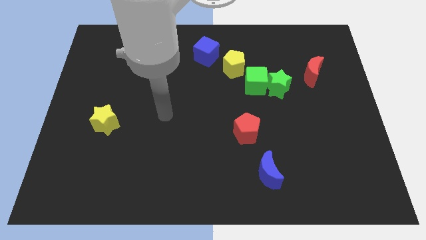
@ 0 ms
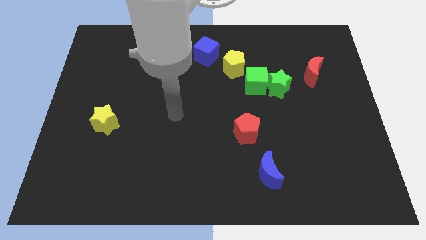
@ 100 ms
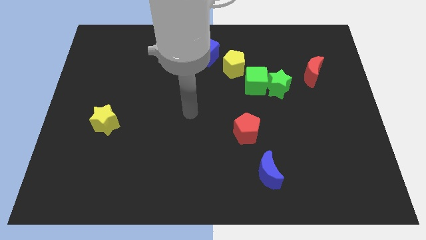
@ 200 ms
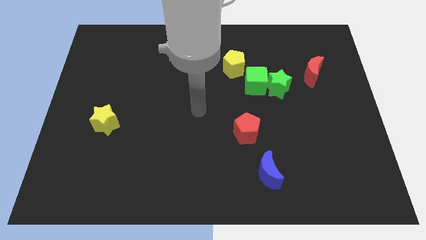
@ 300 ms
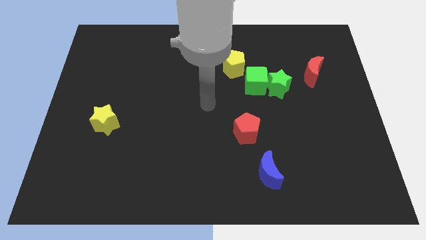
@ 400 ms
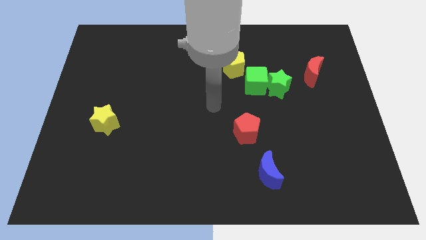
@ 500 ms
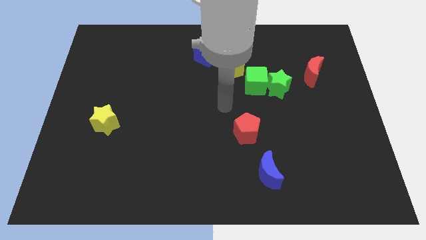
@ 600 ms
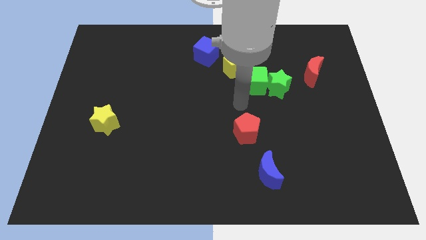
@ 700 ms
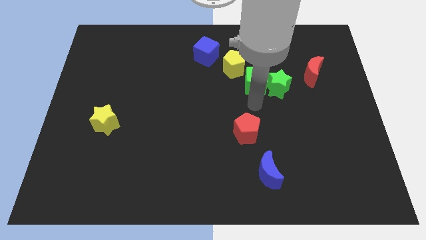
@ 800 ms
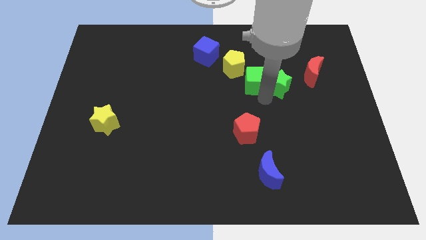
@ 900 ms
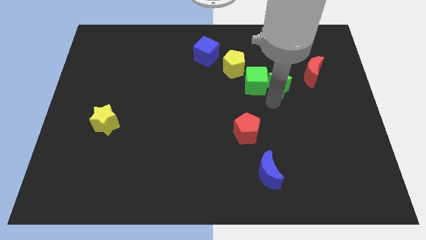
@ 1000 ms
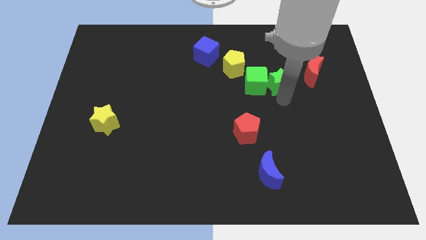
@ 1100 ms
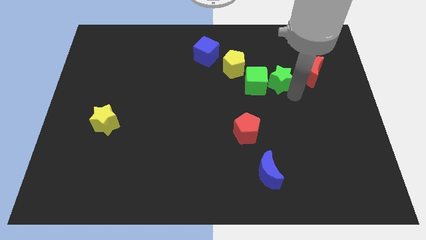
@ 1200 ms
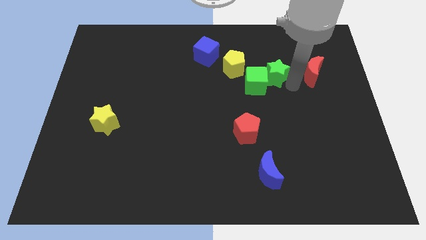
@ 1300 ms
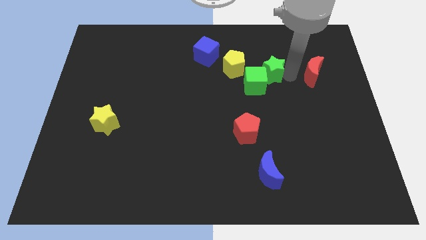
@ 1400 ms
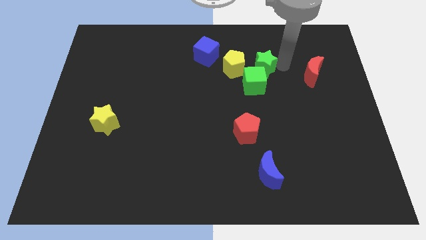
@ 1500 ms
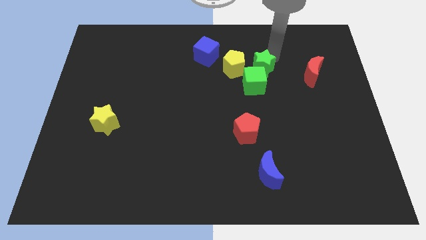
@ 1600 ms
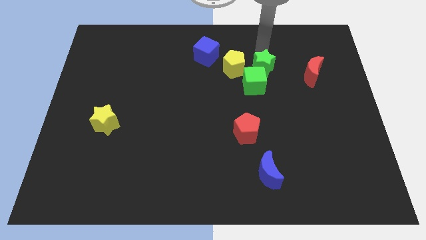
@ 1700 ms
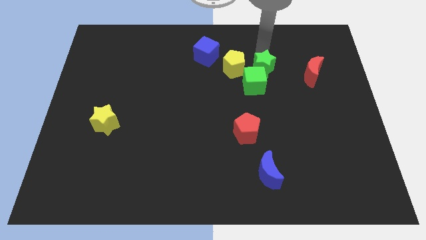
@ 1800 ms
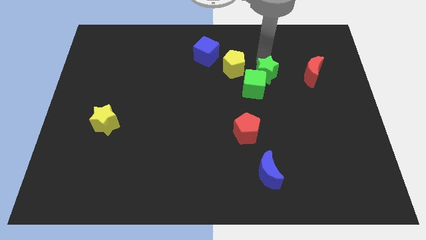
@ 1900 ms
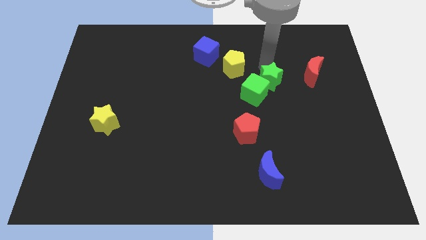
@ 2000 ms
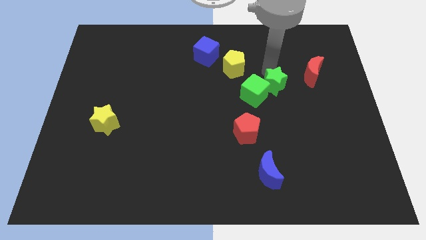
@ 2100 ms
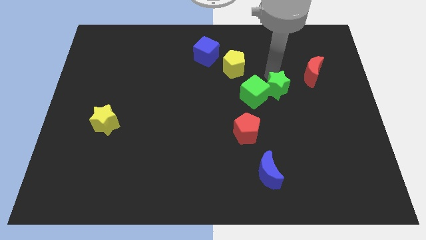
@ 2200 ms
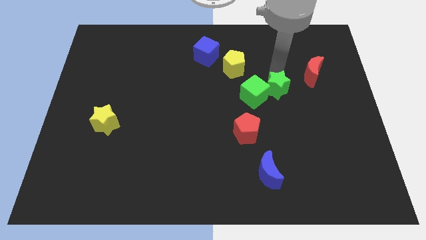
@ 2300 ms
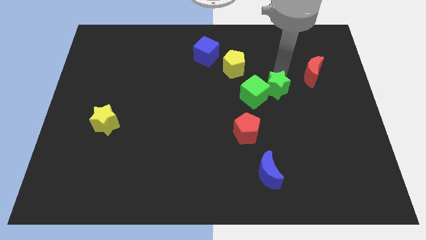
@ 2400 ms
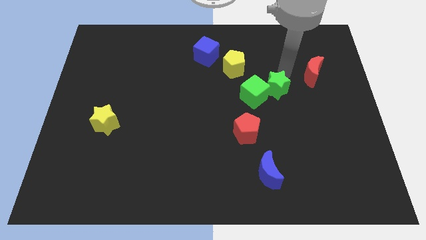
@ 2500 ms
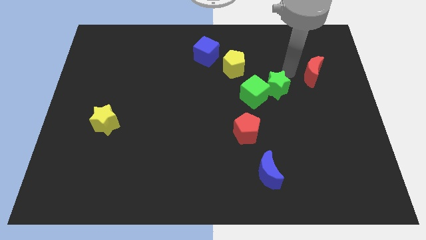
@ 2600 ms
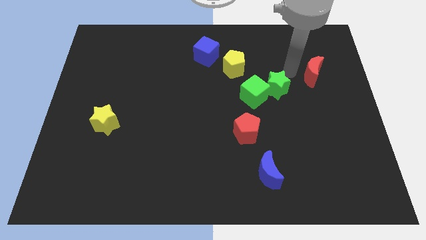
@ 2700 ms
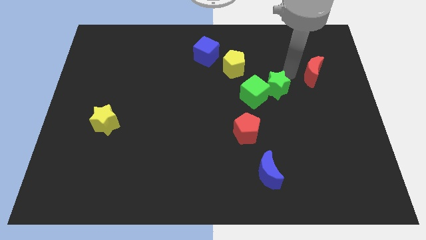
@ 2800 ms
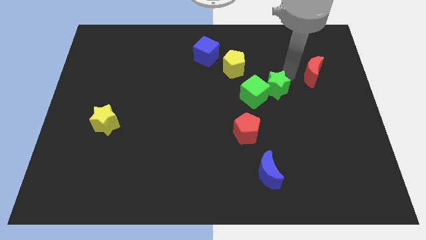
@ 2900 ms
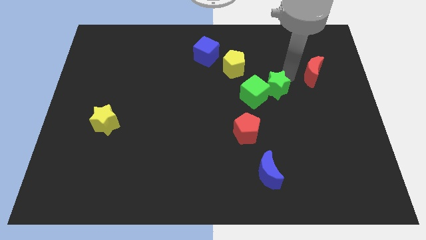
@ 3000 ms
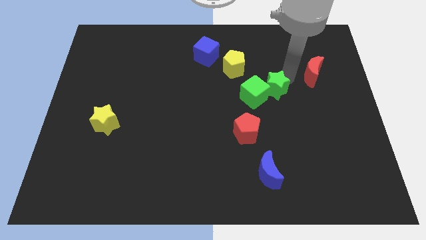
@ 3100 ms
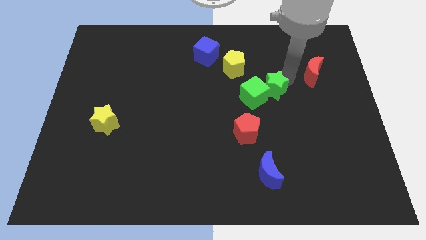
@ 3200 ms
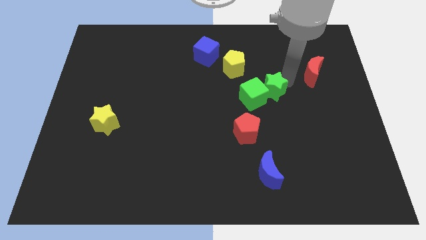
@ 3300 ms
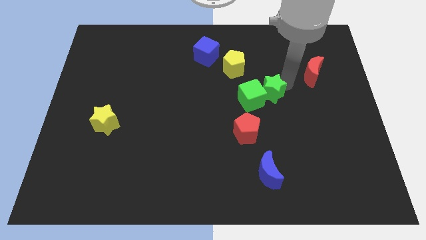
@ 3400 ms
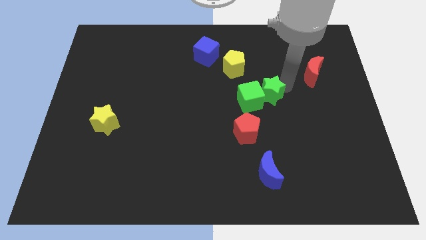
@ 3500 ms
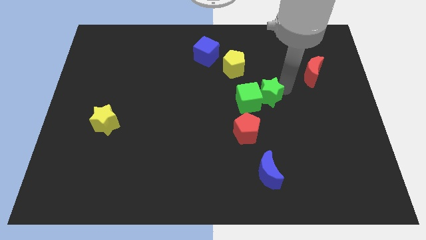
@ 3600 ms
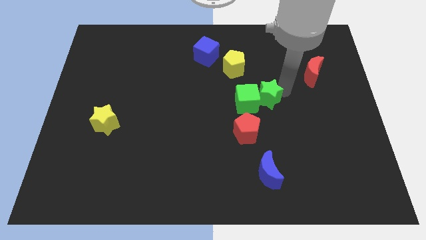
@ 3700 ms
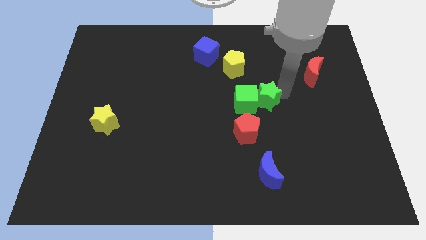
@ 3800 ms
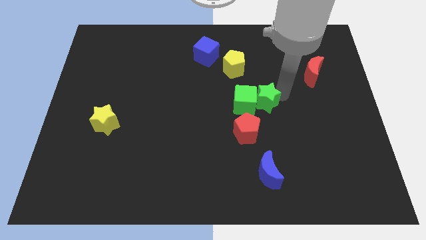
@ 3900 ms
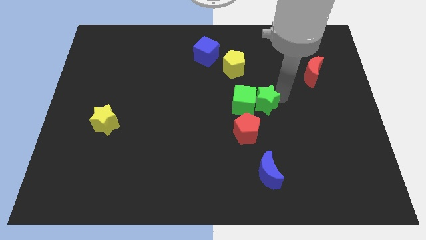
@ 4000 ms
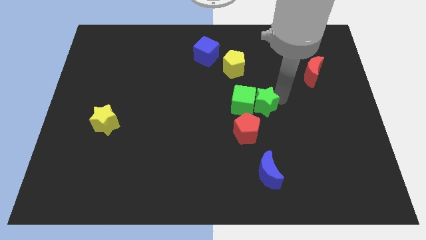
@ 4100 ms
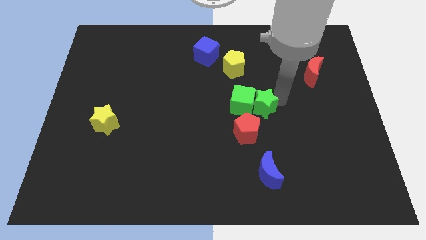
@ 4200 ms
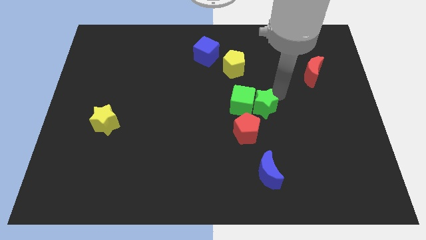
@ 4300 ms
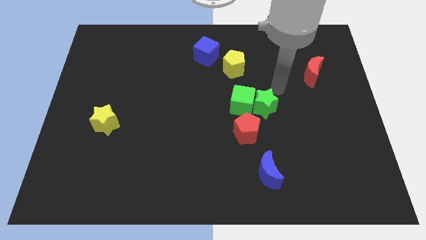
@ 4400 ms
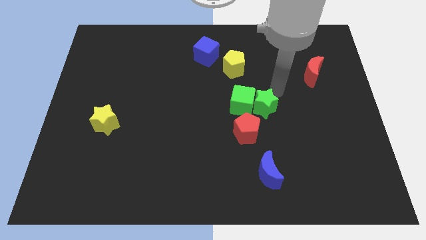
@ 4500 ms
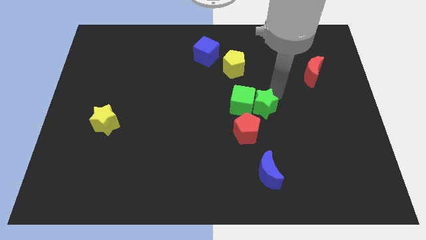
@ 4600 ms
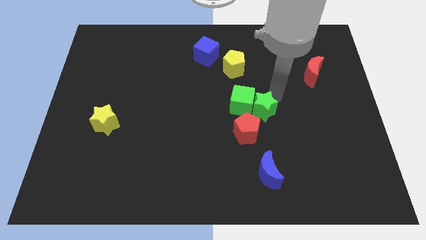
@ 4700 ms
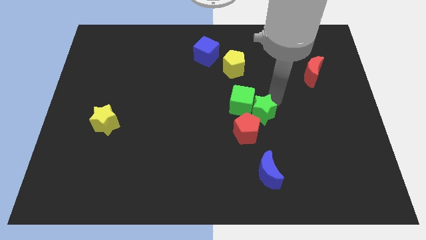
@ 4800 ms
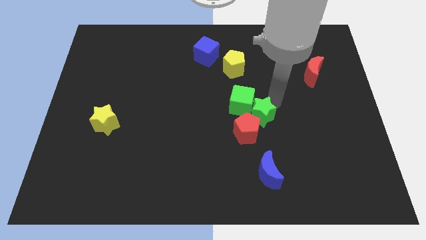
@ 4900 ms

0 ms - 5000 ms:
slide the green star towards the red pentagon

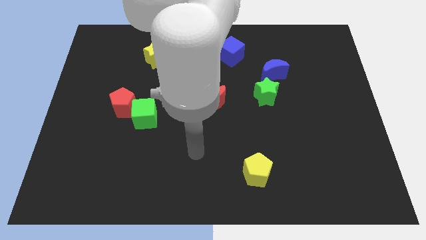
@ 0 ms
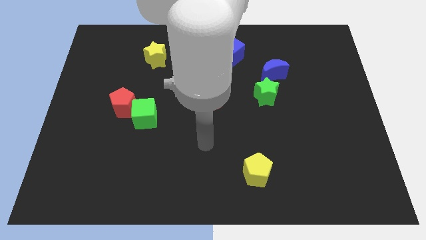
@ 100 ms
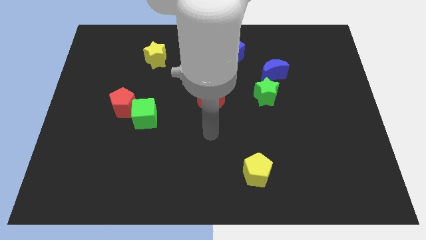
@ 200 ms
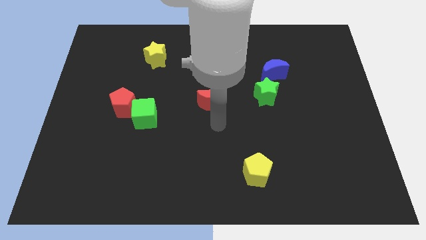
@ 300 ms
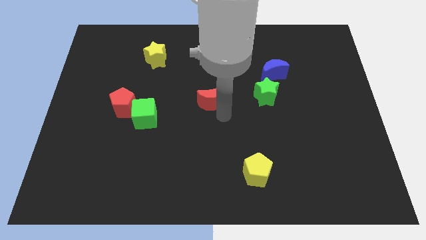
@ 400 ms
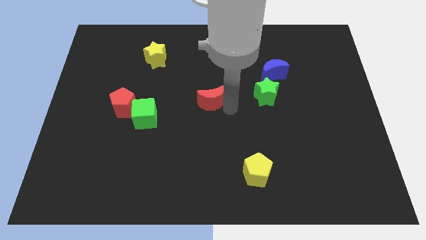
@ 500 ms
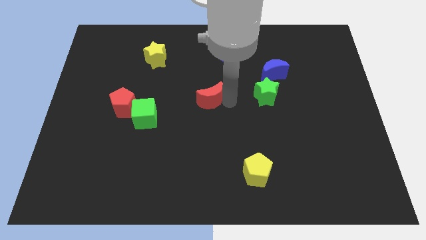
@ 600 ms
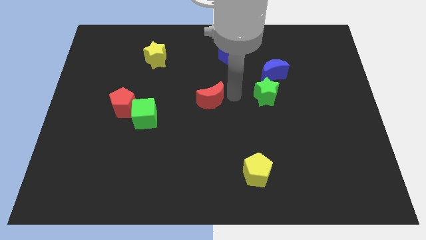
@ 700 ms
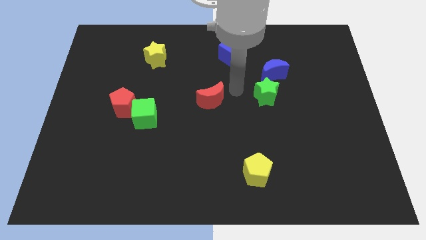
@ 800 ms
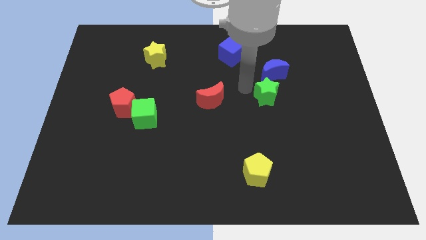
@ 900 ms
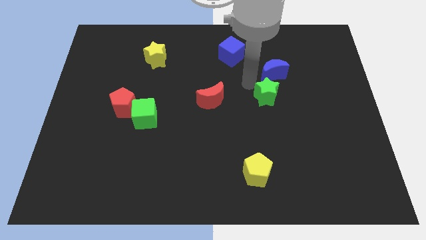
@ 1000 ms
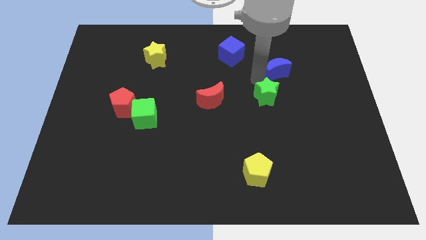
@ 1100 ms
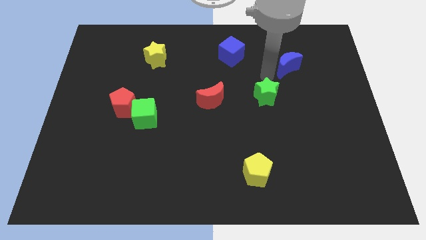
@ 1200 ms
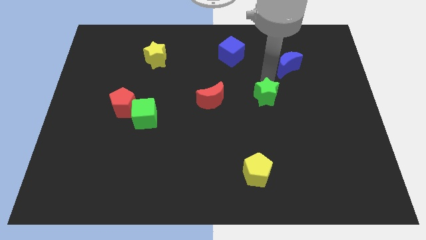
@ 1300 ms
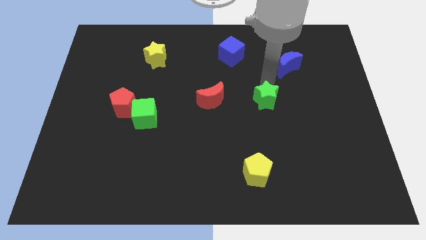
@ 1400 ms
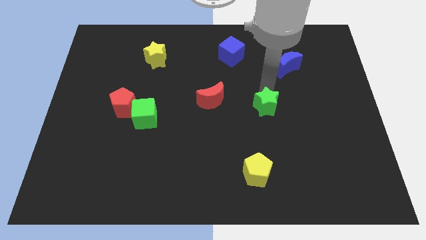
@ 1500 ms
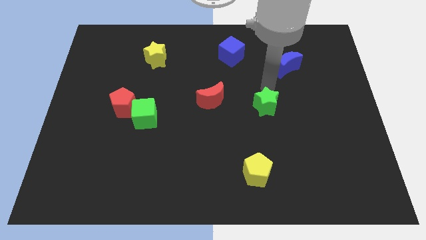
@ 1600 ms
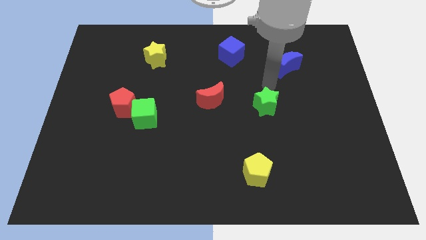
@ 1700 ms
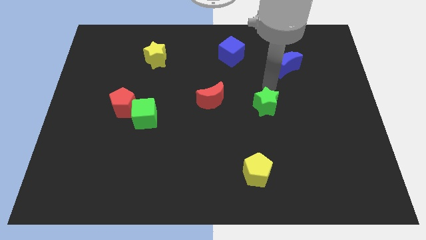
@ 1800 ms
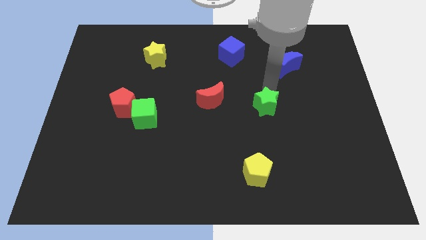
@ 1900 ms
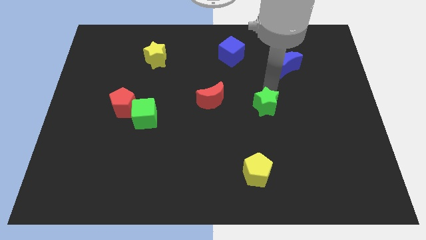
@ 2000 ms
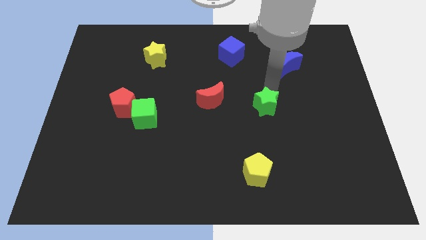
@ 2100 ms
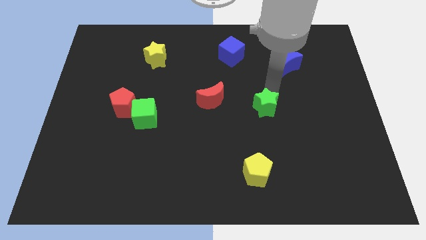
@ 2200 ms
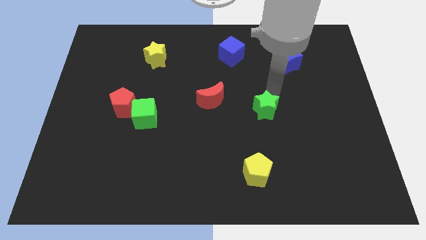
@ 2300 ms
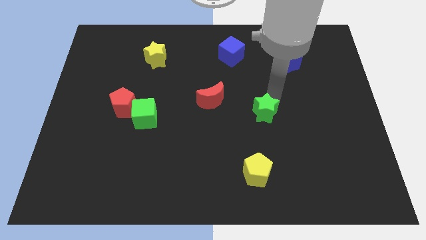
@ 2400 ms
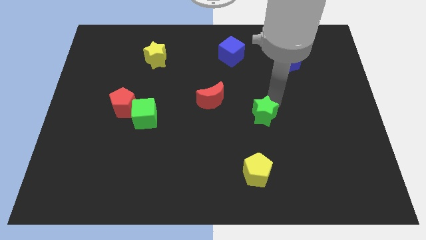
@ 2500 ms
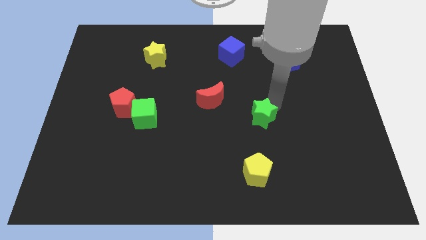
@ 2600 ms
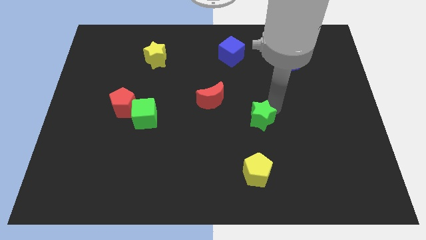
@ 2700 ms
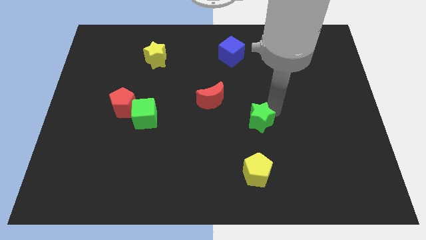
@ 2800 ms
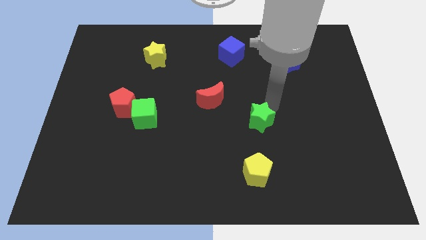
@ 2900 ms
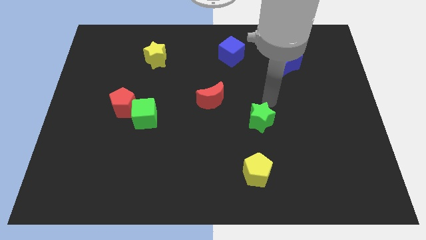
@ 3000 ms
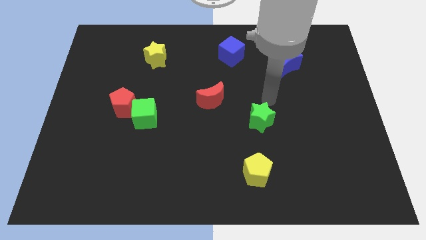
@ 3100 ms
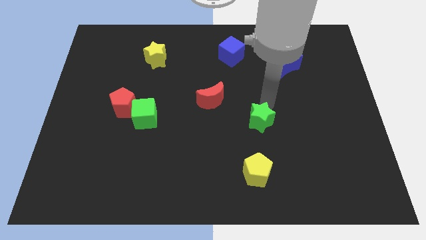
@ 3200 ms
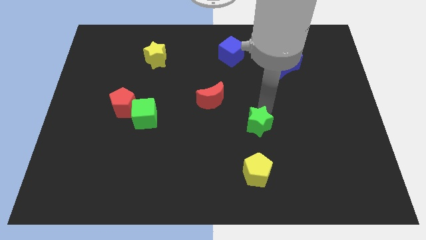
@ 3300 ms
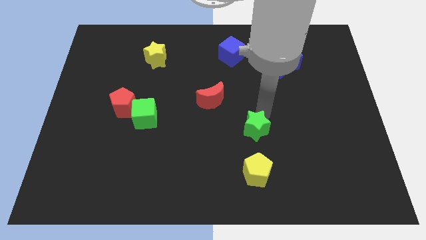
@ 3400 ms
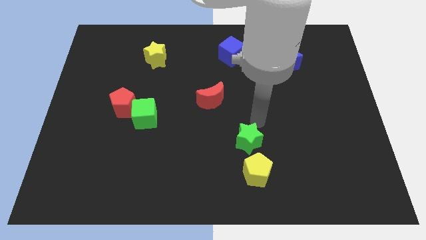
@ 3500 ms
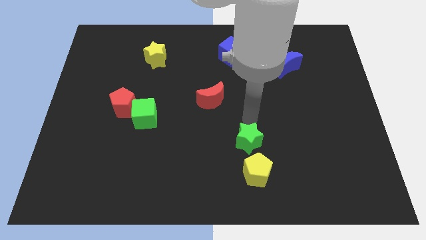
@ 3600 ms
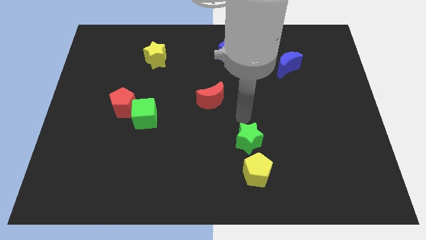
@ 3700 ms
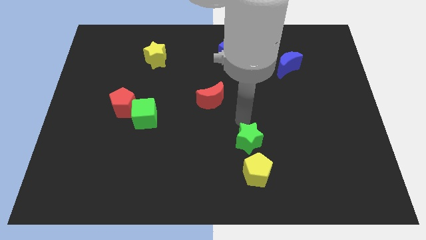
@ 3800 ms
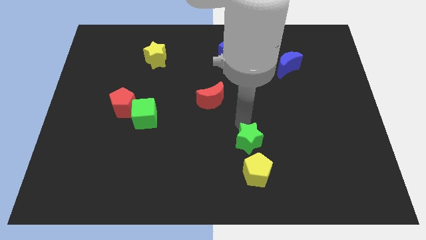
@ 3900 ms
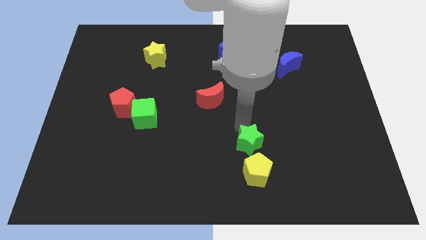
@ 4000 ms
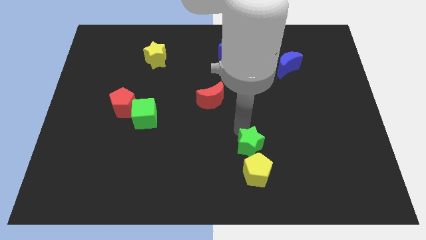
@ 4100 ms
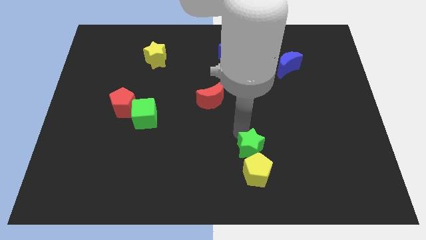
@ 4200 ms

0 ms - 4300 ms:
slide the green star to the yellow pentagon
